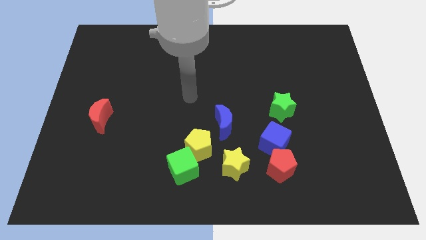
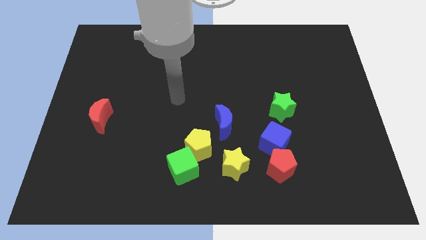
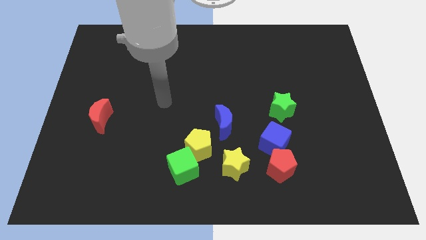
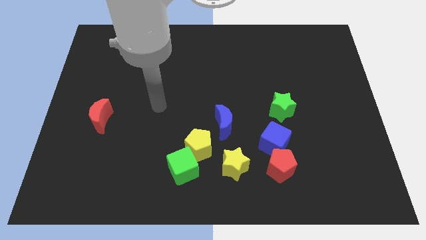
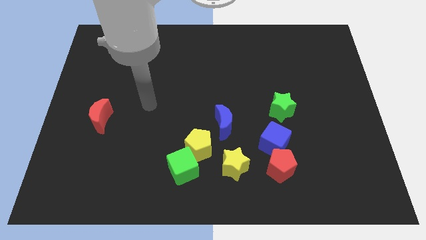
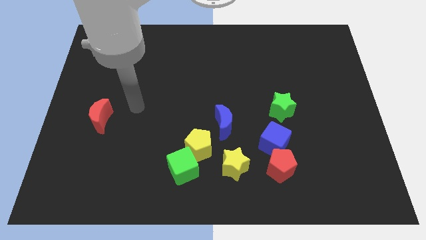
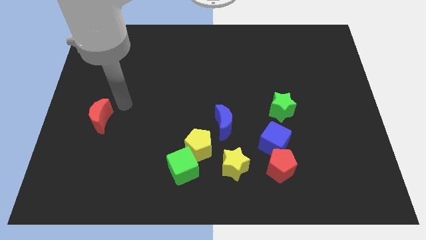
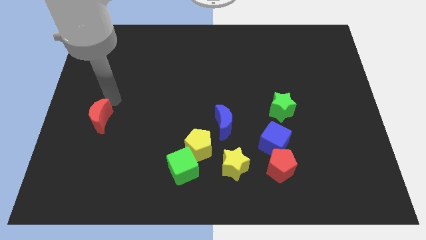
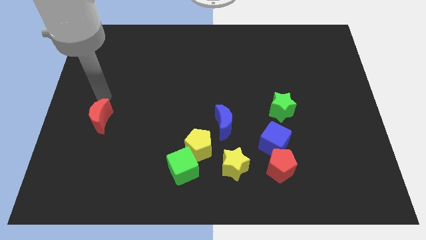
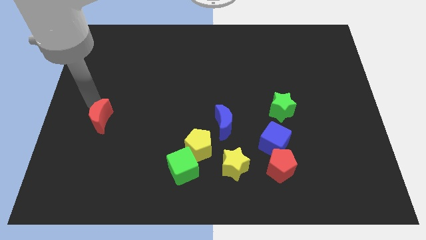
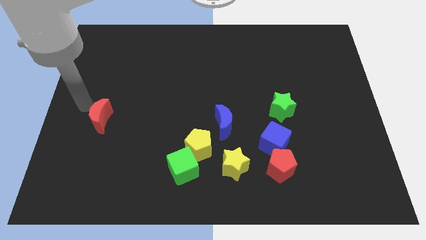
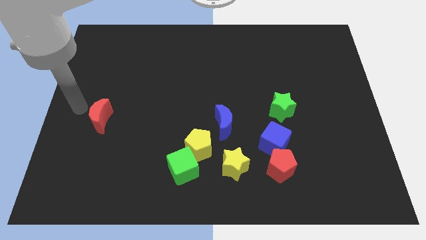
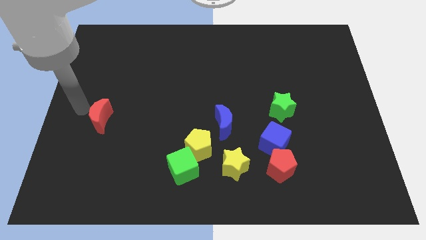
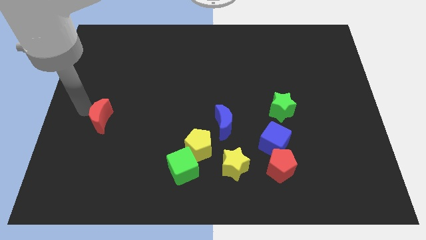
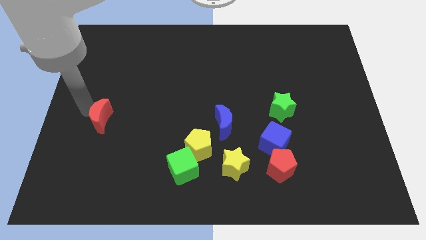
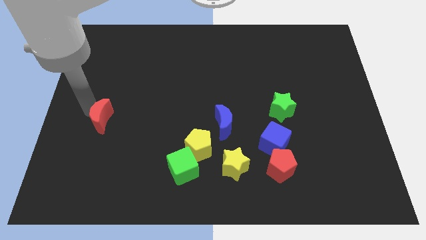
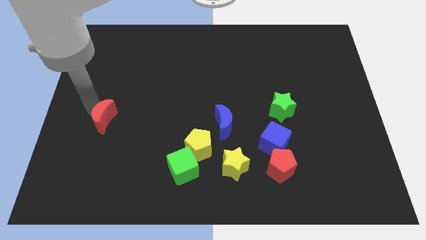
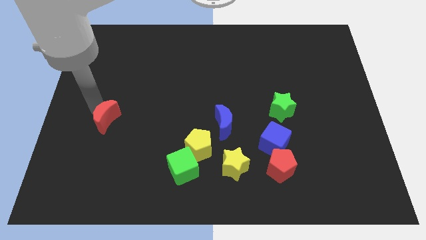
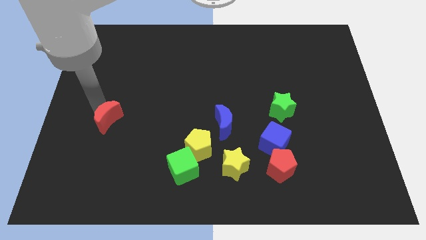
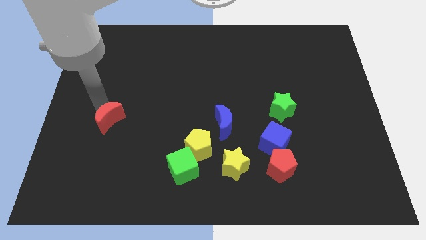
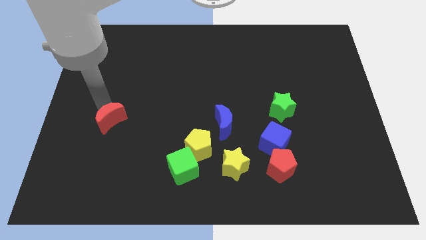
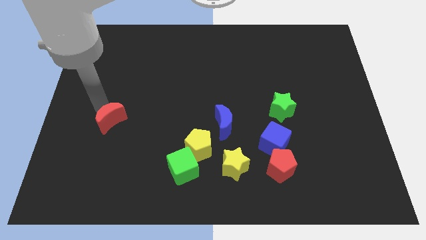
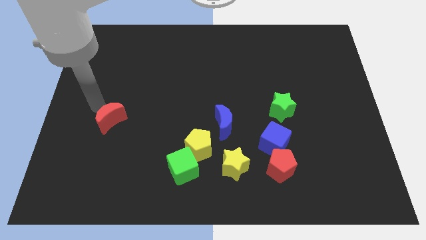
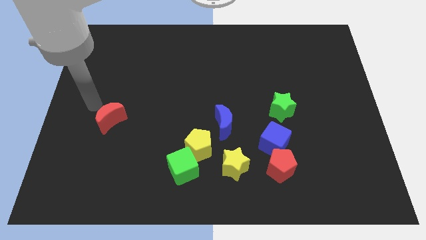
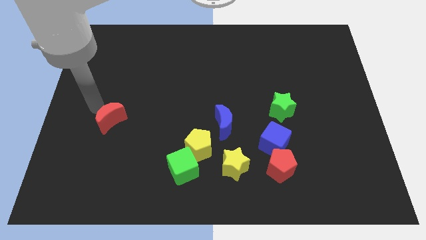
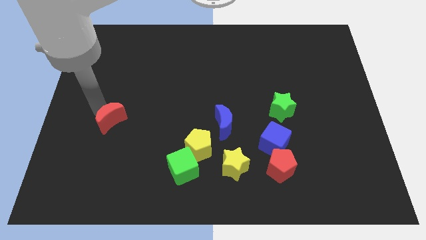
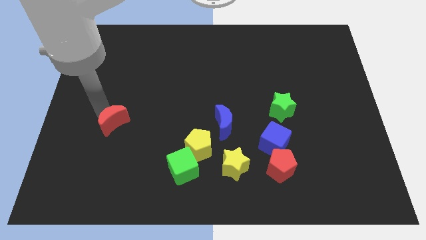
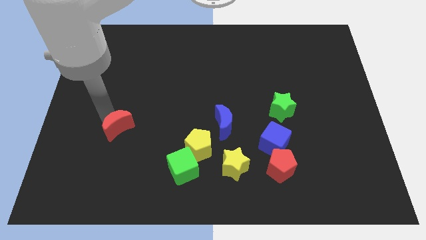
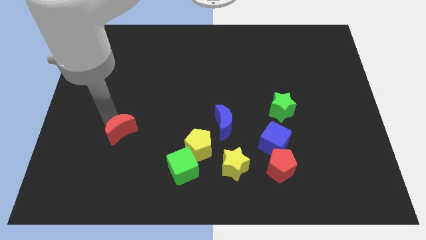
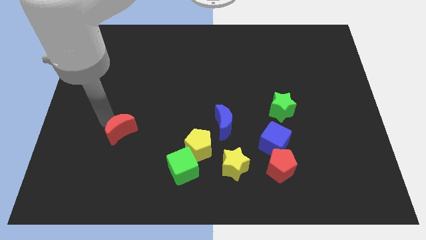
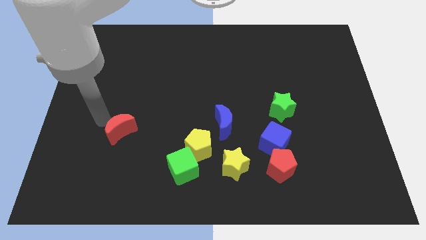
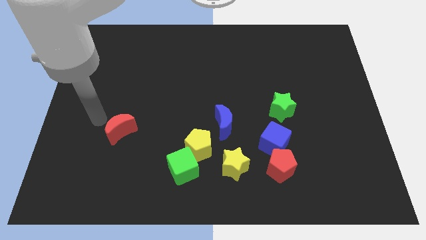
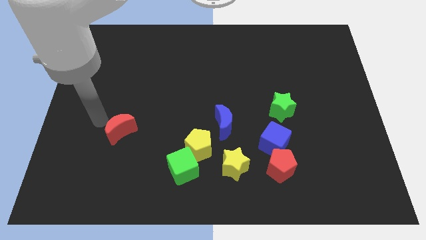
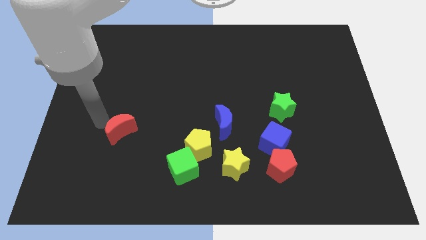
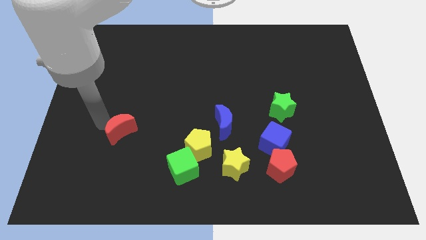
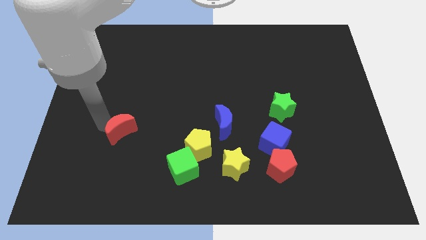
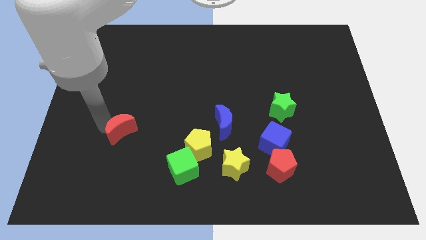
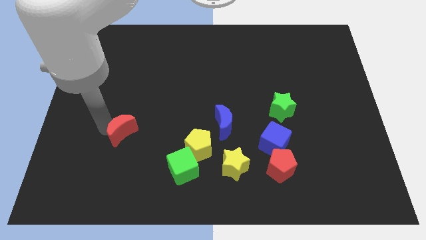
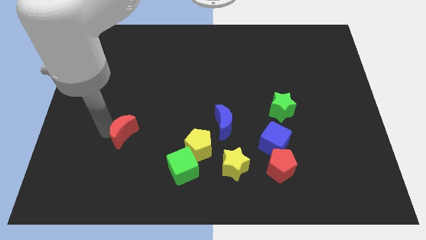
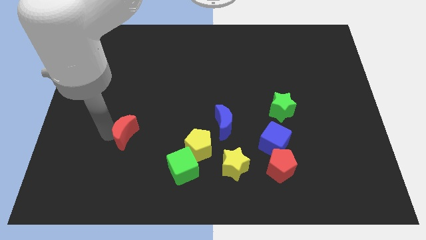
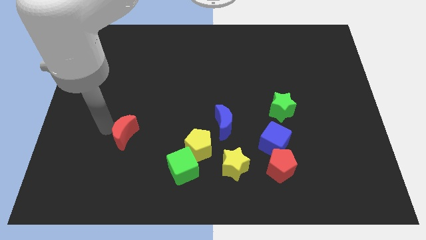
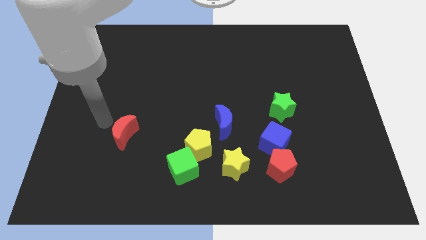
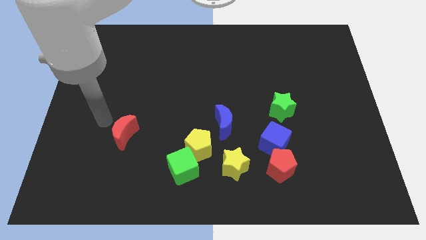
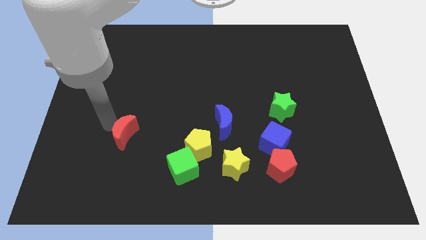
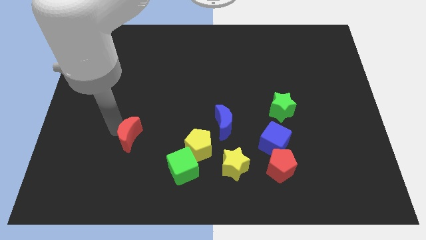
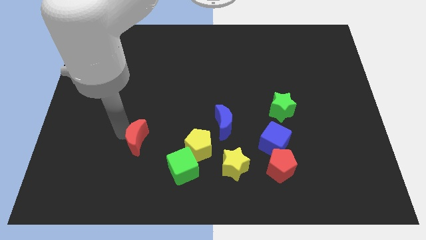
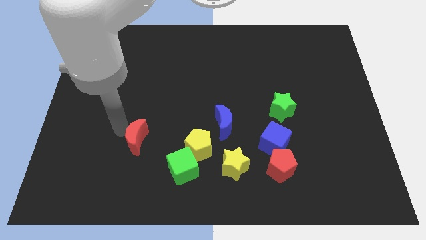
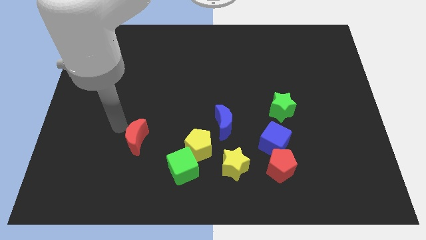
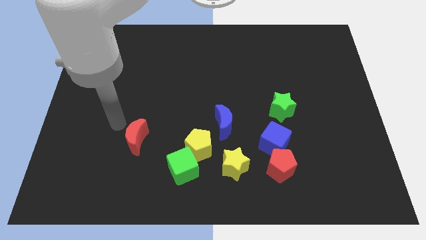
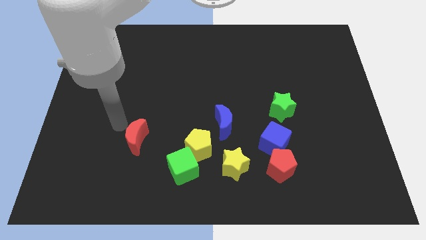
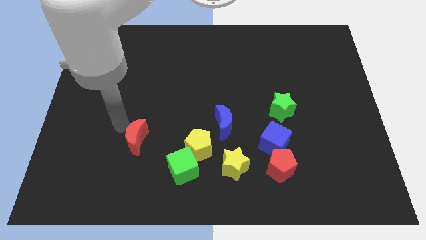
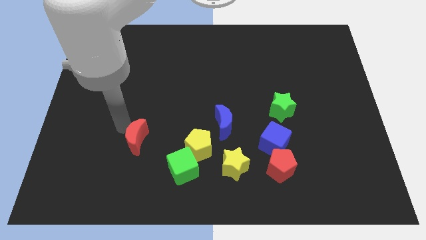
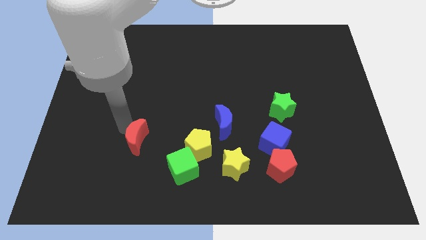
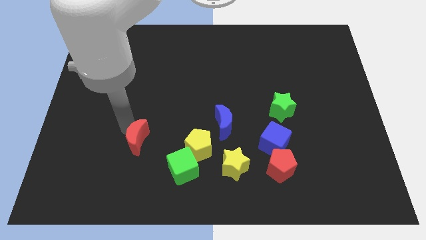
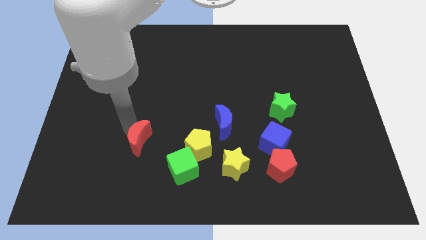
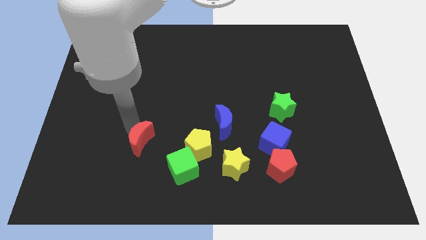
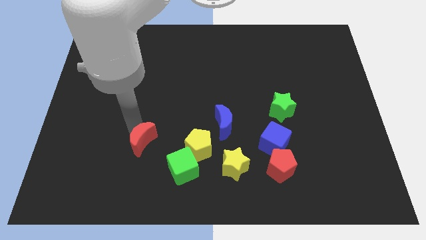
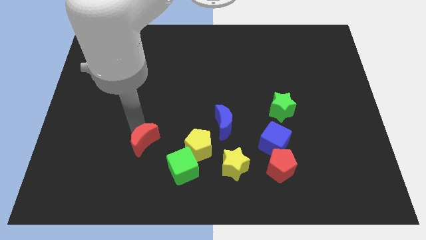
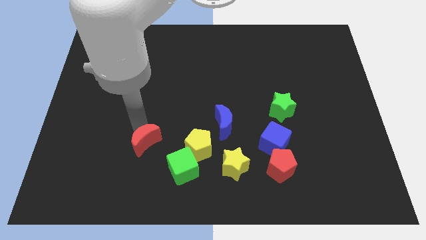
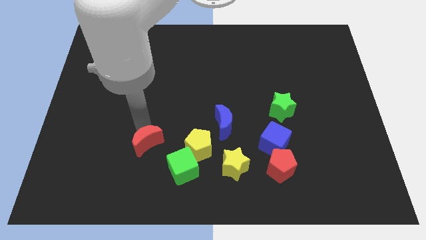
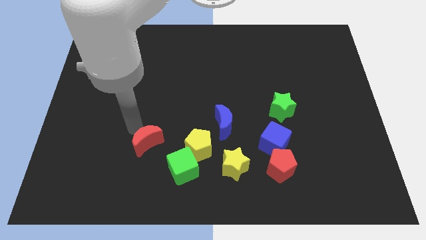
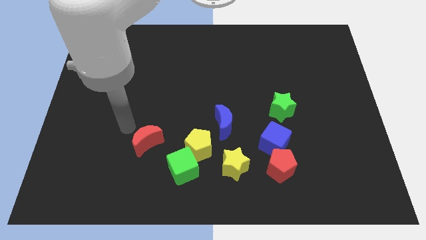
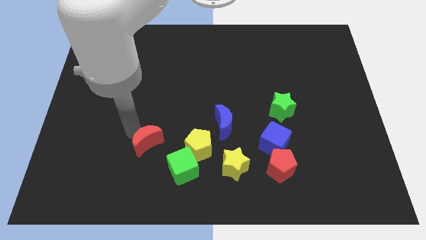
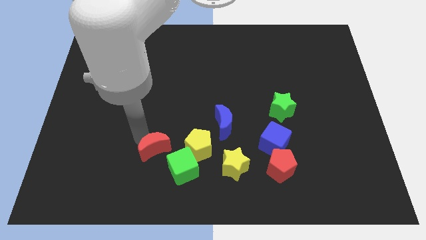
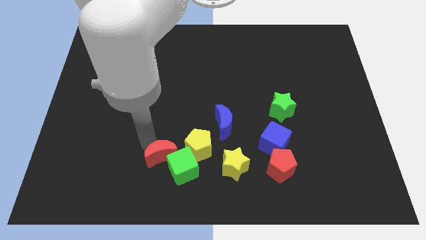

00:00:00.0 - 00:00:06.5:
slide the red moon close to the green cube

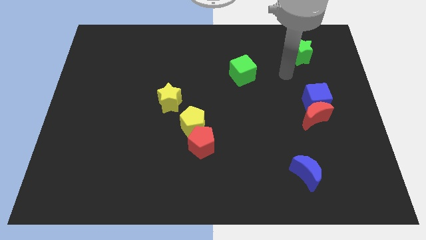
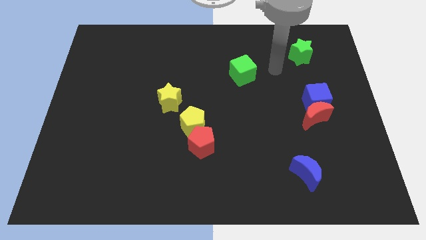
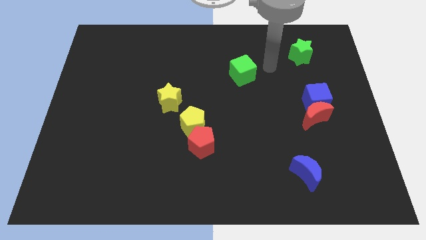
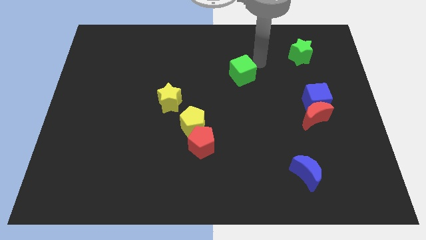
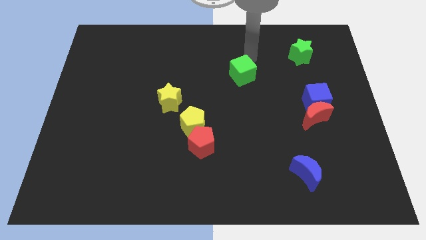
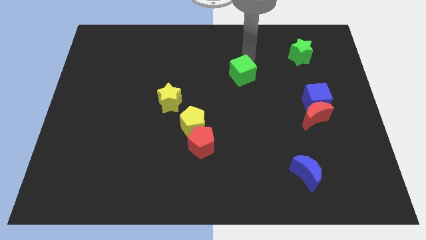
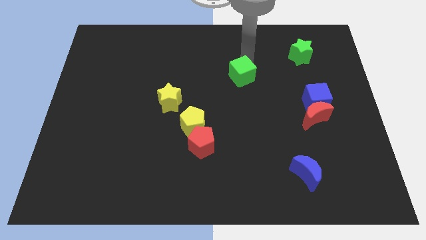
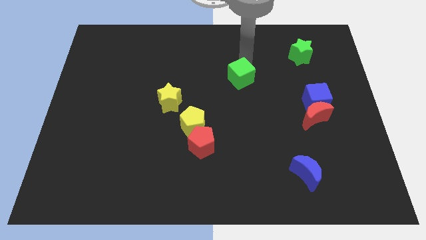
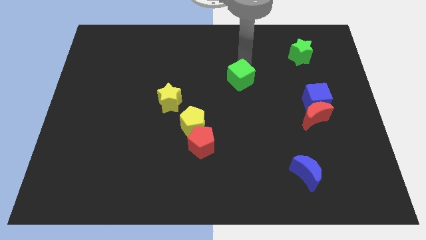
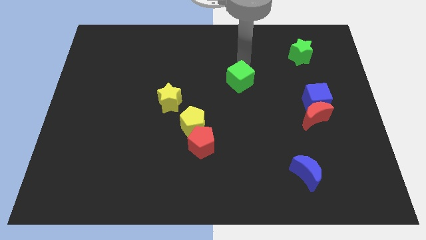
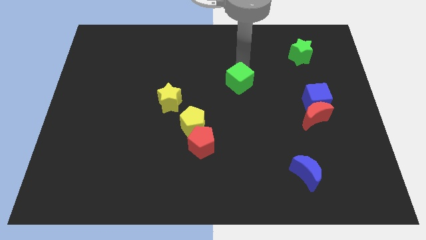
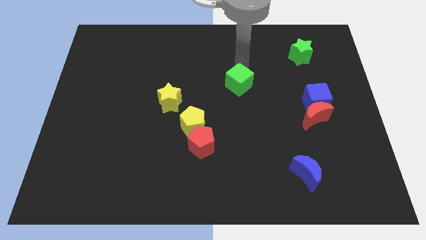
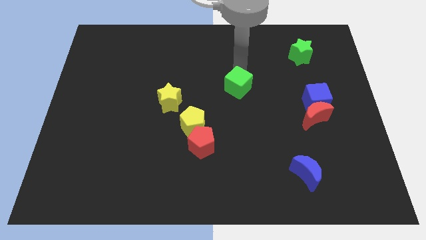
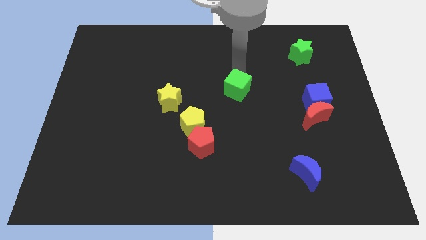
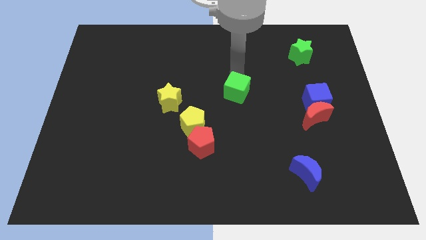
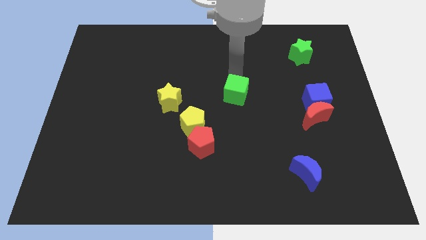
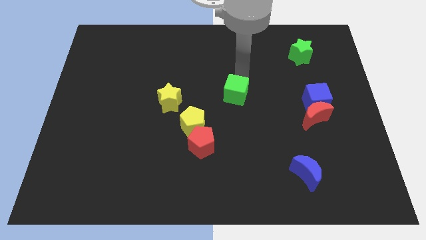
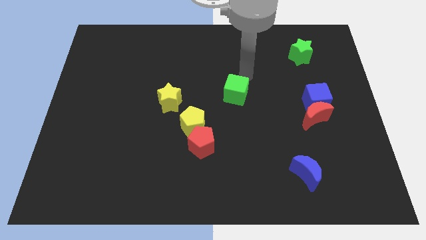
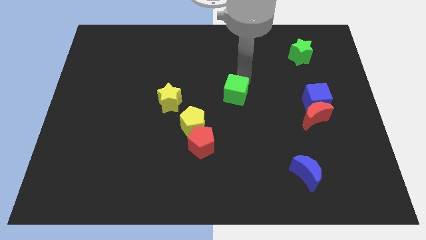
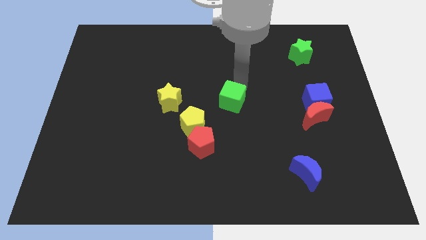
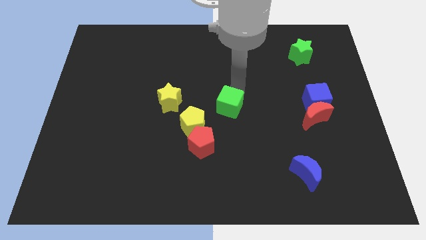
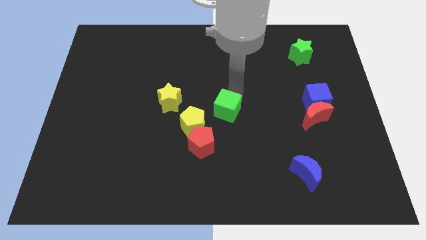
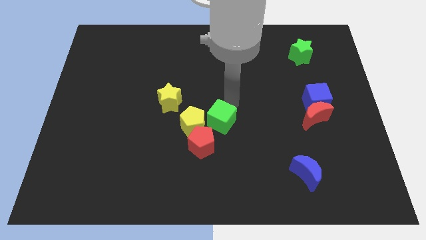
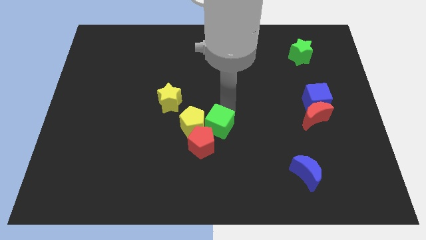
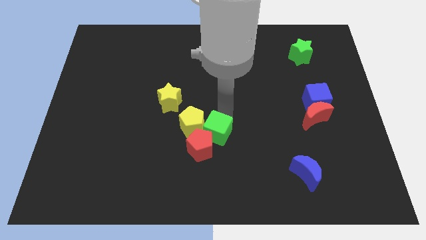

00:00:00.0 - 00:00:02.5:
move the green cube towards the red pentagon
